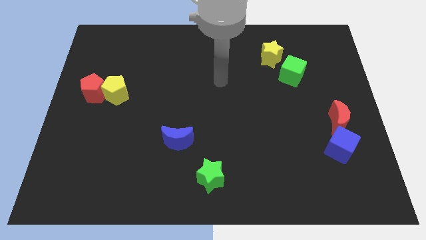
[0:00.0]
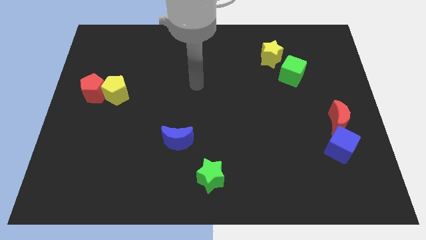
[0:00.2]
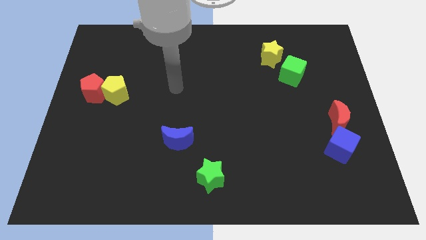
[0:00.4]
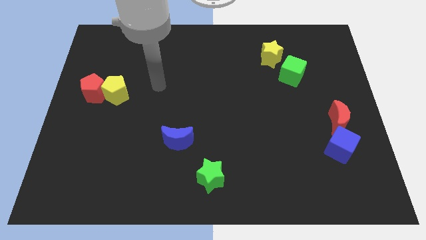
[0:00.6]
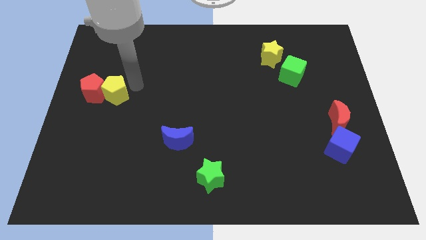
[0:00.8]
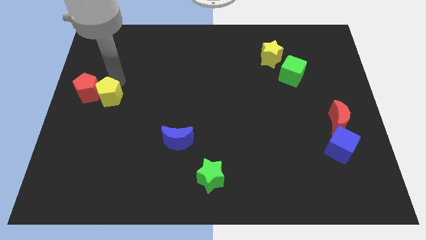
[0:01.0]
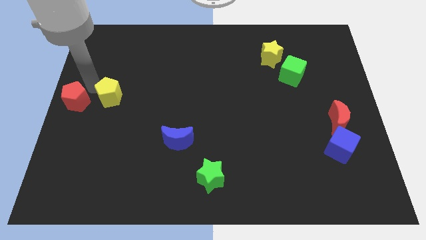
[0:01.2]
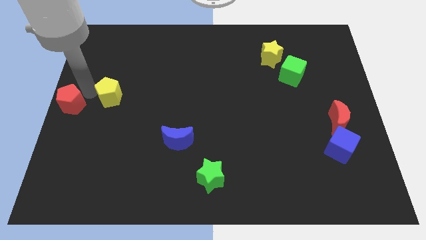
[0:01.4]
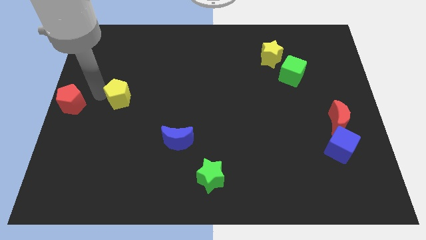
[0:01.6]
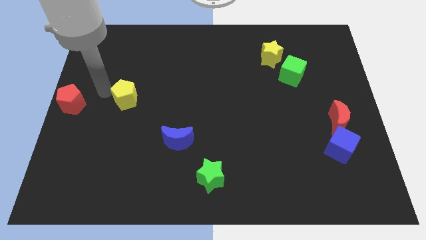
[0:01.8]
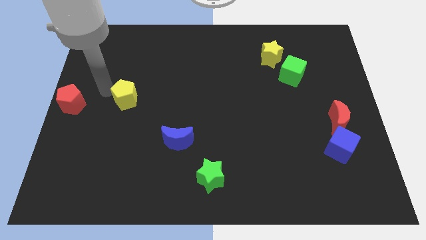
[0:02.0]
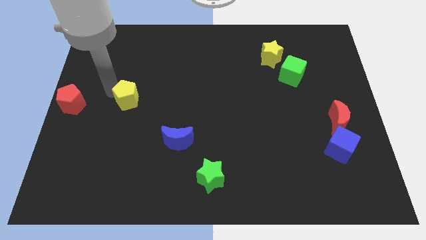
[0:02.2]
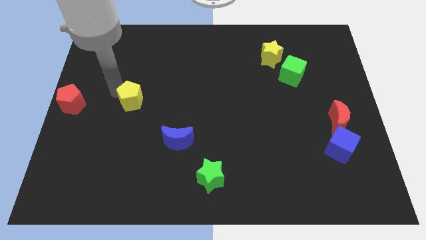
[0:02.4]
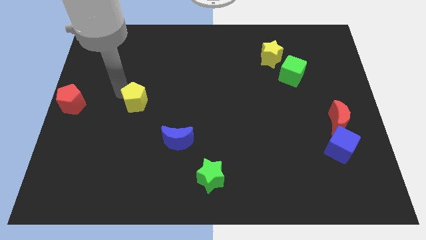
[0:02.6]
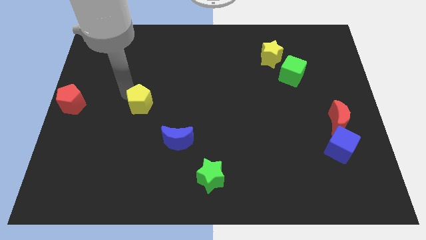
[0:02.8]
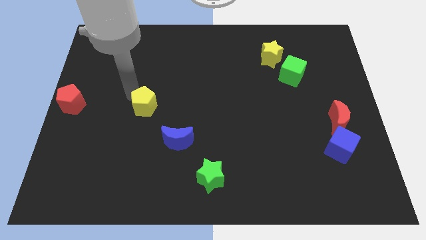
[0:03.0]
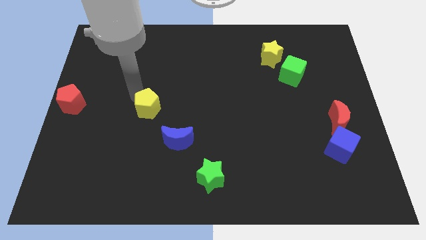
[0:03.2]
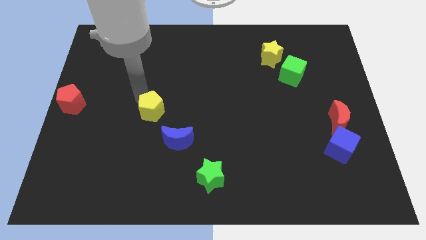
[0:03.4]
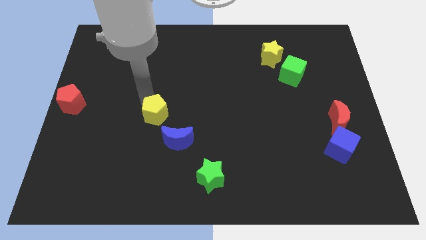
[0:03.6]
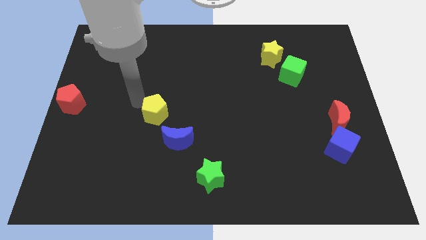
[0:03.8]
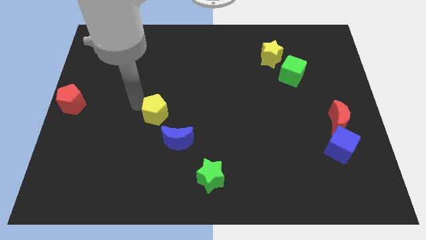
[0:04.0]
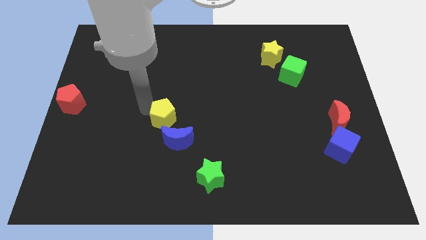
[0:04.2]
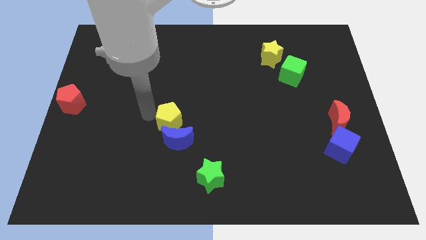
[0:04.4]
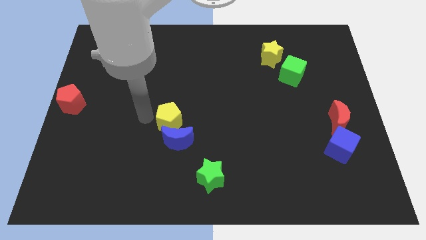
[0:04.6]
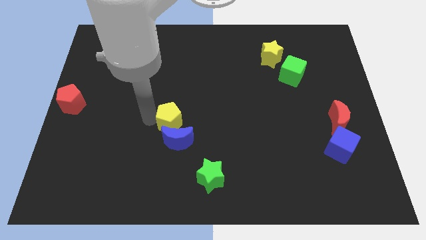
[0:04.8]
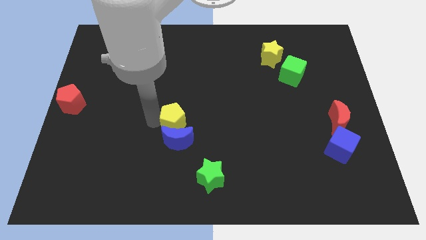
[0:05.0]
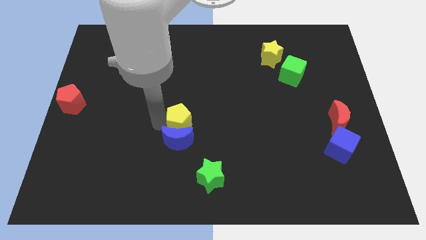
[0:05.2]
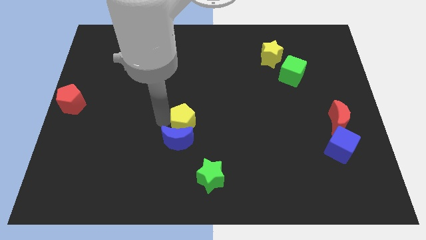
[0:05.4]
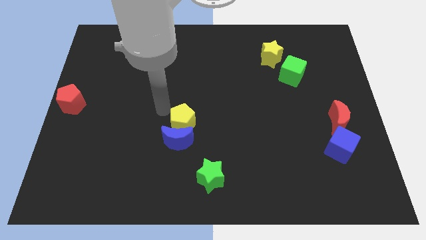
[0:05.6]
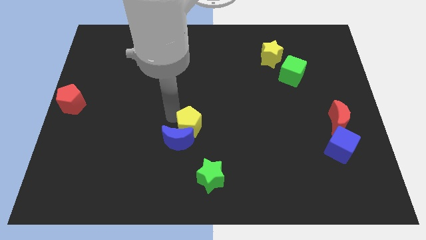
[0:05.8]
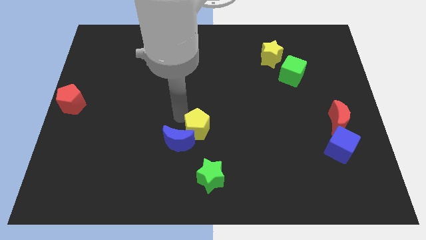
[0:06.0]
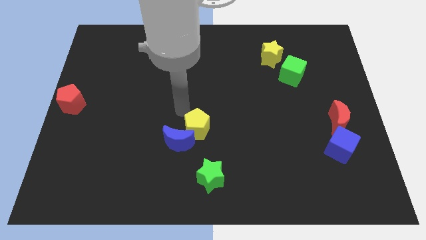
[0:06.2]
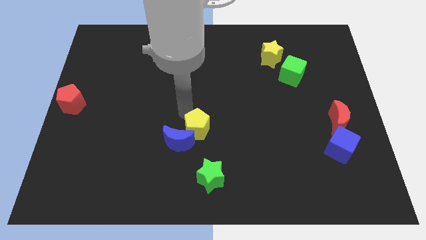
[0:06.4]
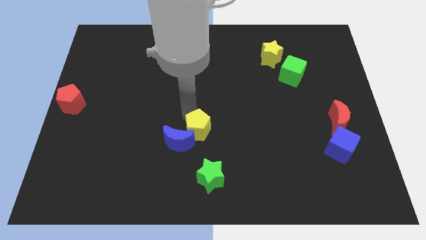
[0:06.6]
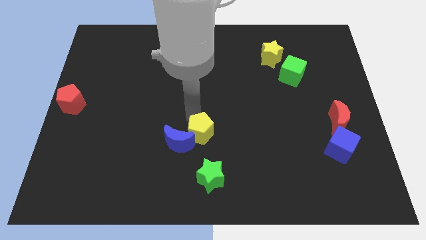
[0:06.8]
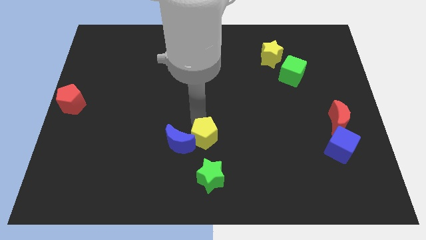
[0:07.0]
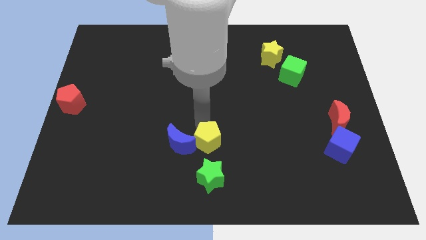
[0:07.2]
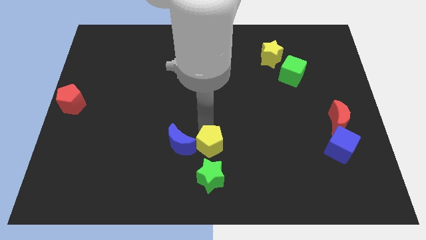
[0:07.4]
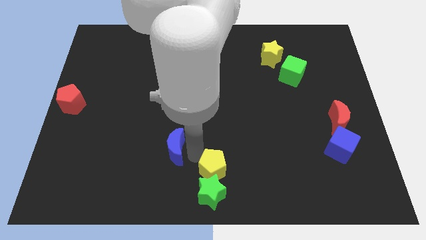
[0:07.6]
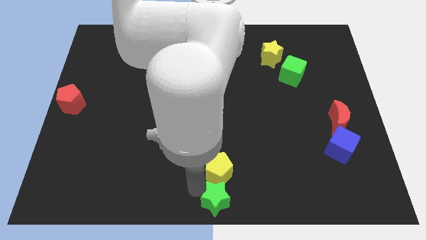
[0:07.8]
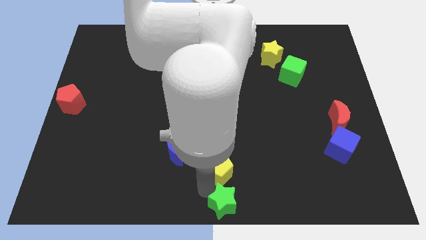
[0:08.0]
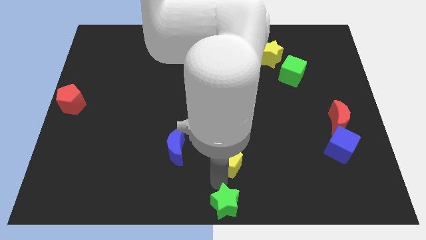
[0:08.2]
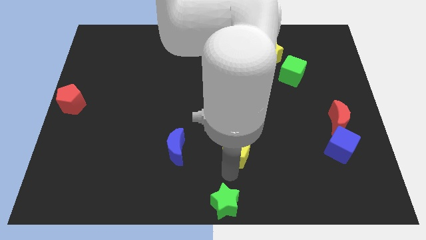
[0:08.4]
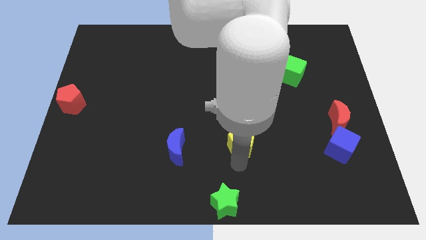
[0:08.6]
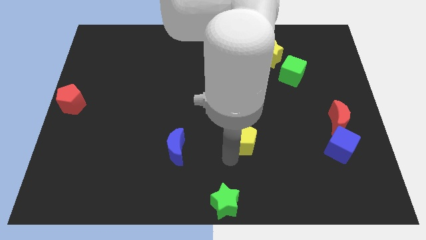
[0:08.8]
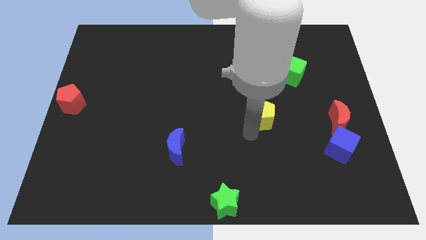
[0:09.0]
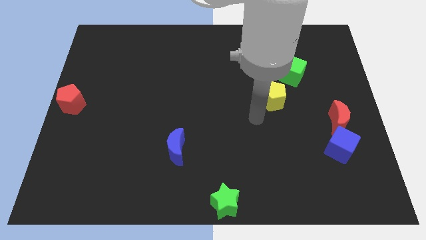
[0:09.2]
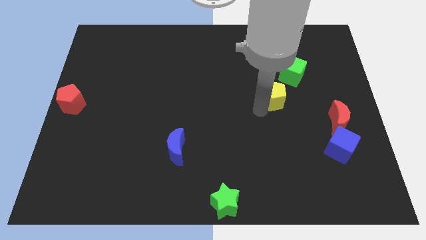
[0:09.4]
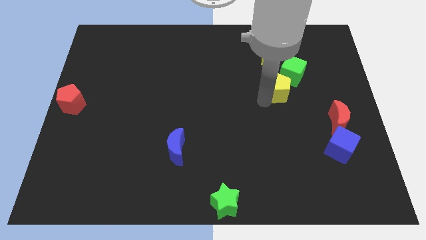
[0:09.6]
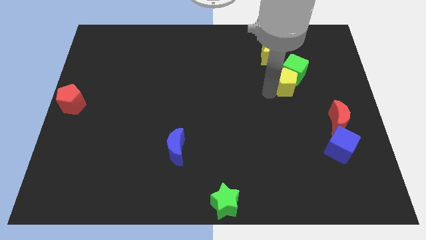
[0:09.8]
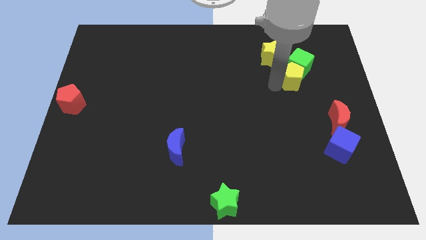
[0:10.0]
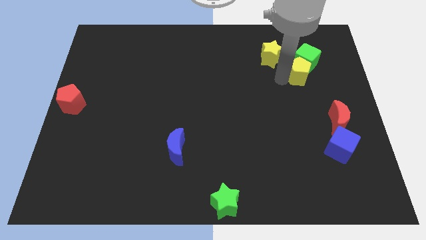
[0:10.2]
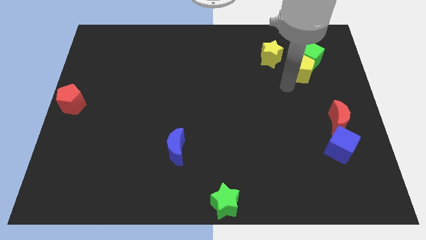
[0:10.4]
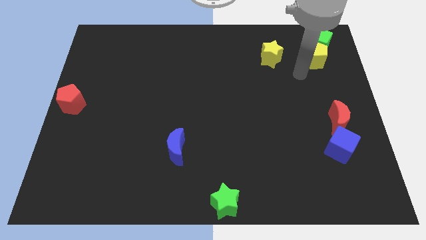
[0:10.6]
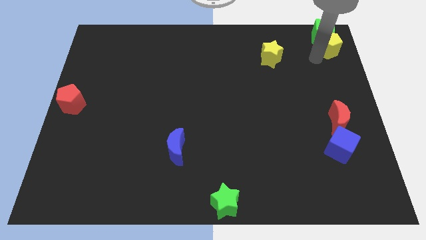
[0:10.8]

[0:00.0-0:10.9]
push the yellow pentagon to the top right
